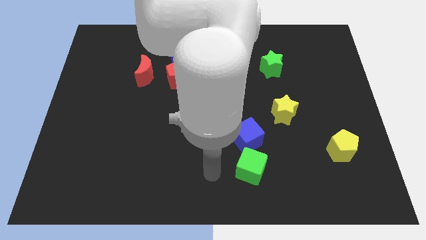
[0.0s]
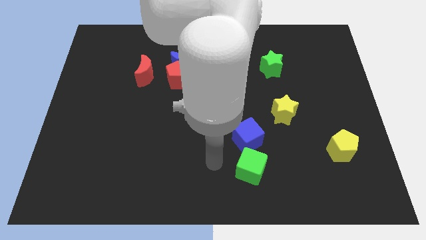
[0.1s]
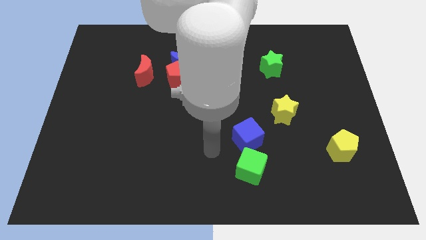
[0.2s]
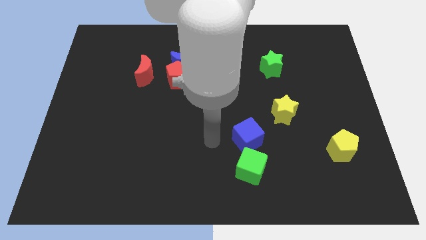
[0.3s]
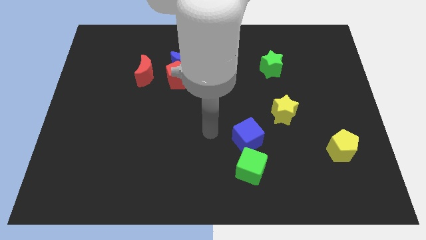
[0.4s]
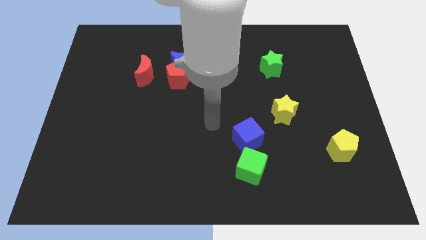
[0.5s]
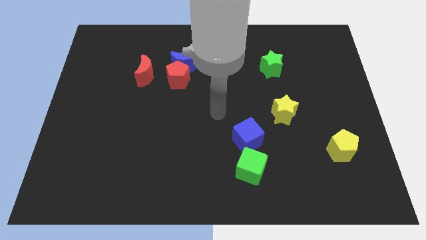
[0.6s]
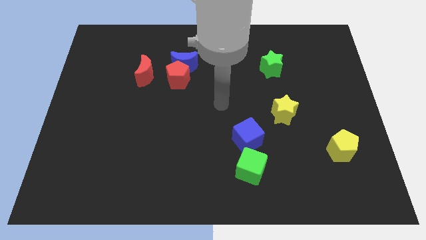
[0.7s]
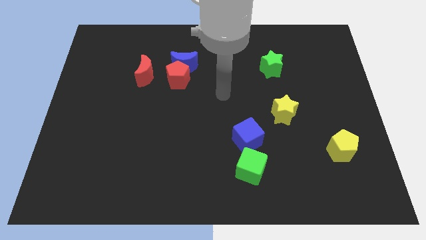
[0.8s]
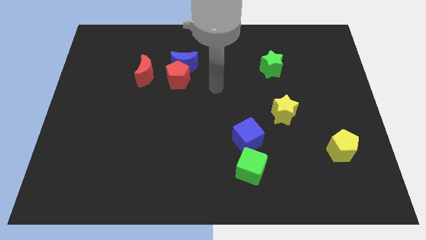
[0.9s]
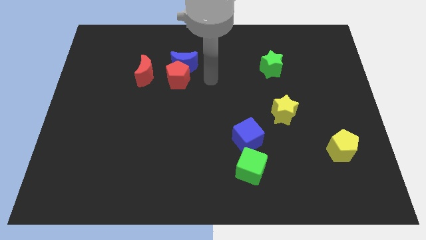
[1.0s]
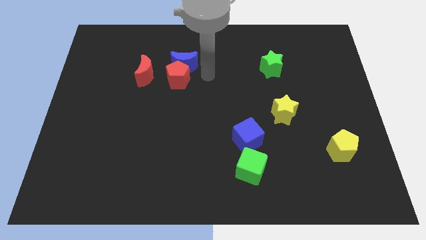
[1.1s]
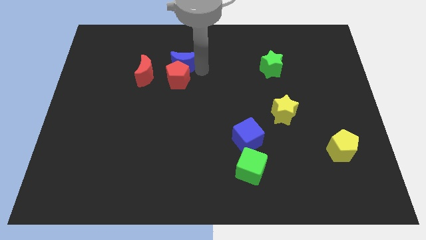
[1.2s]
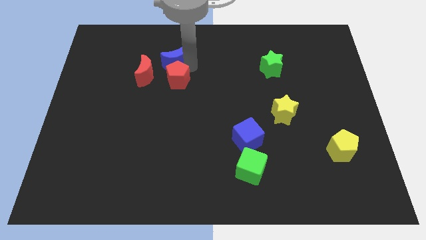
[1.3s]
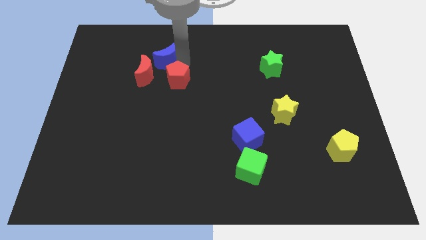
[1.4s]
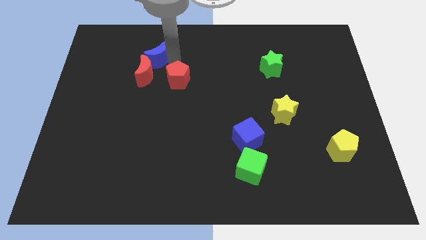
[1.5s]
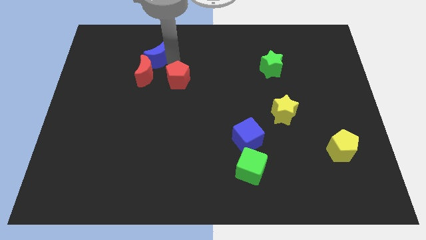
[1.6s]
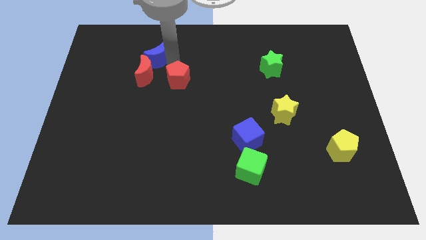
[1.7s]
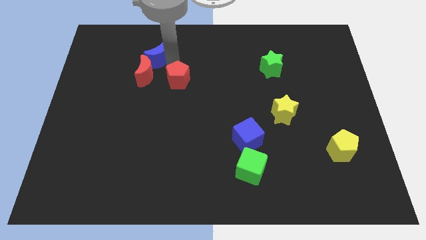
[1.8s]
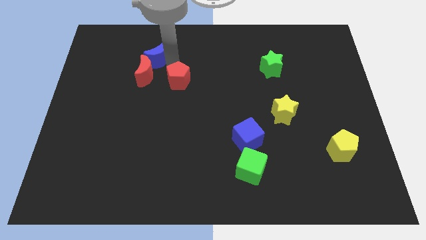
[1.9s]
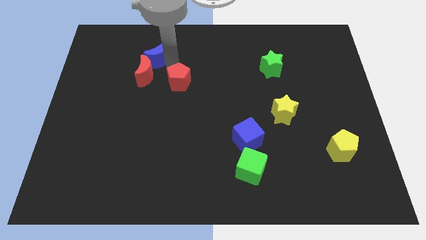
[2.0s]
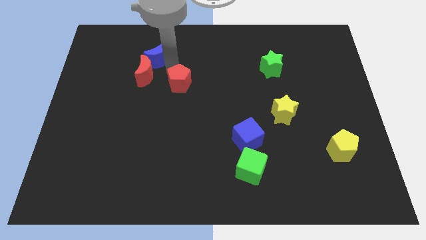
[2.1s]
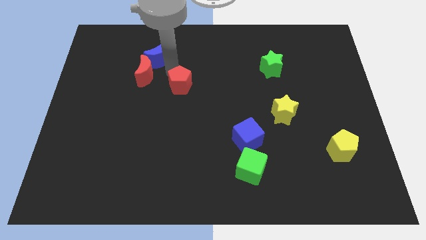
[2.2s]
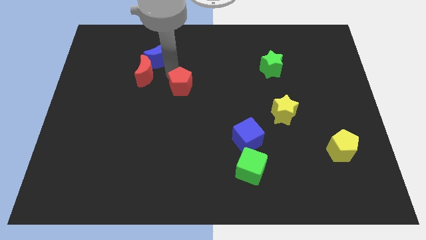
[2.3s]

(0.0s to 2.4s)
move the red pentagon away from the blue moon and red moon

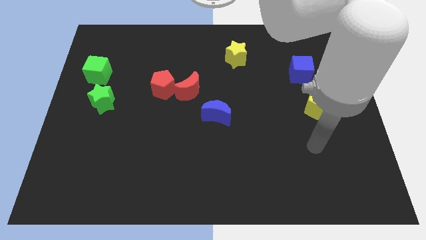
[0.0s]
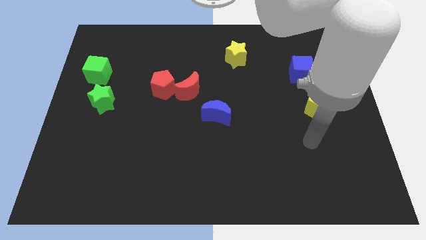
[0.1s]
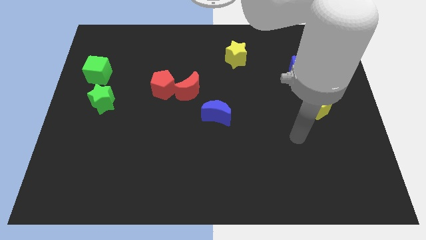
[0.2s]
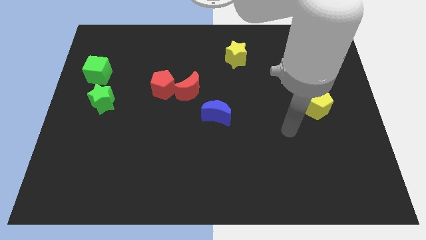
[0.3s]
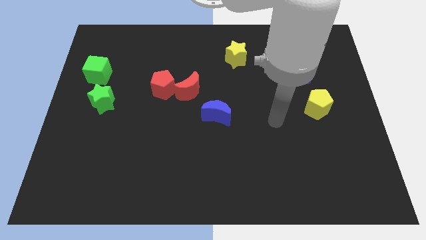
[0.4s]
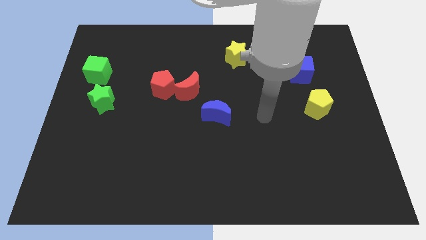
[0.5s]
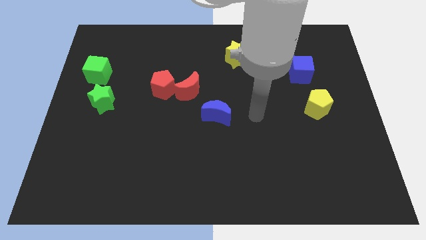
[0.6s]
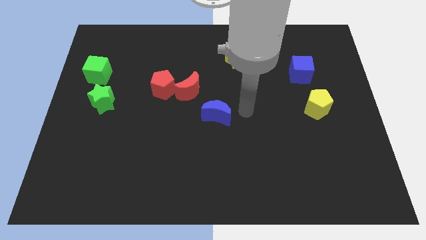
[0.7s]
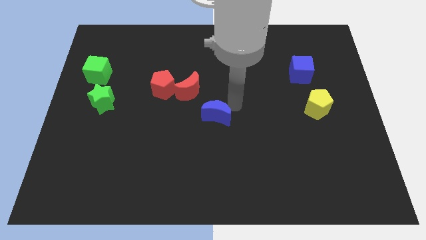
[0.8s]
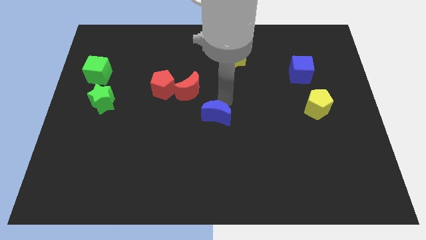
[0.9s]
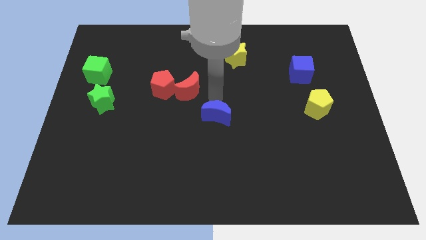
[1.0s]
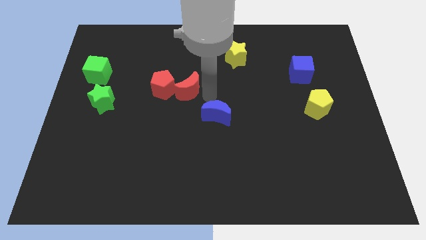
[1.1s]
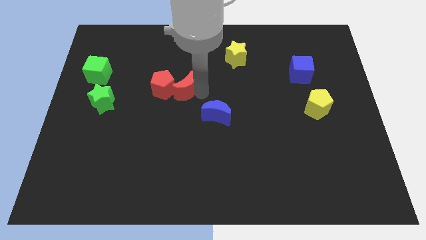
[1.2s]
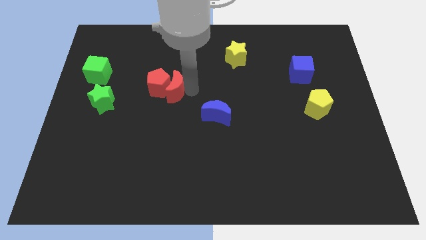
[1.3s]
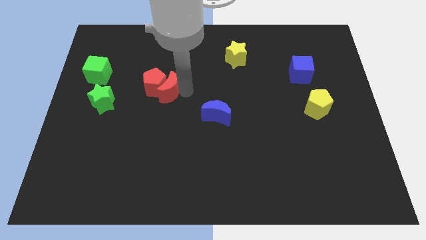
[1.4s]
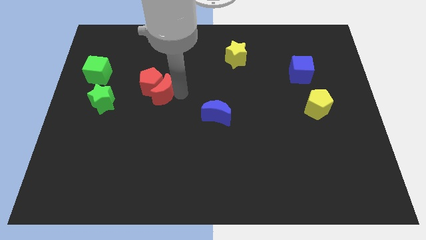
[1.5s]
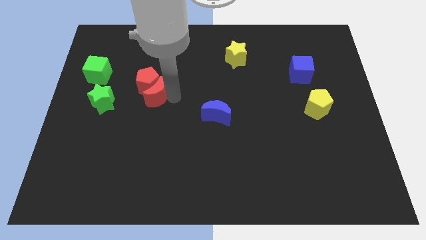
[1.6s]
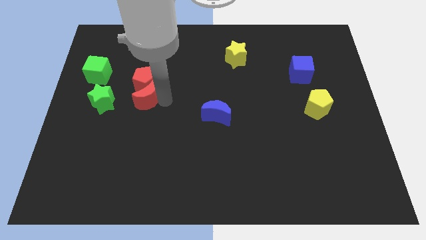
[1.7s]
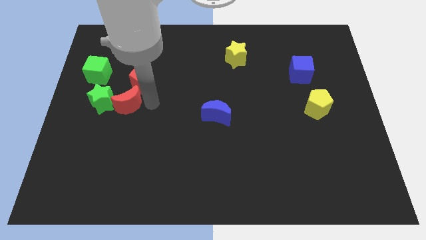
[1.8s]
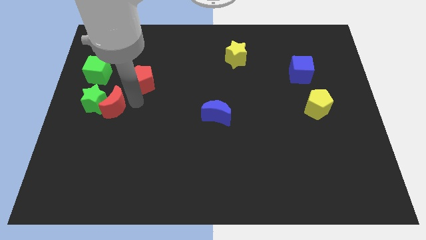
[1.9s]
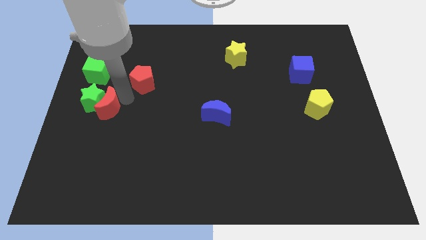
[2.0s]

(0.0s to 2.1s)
pull the red pentagon apart from the red moon

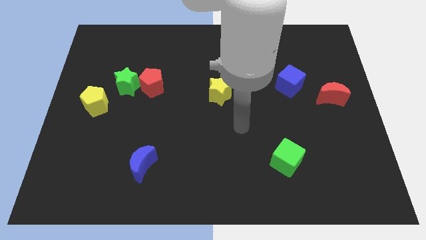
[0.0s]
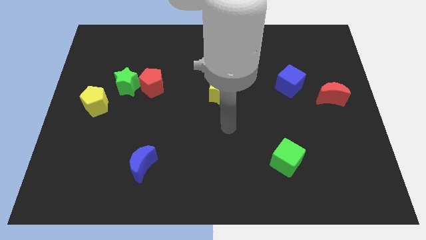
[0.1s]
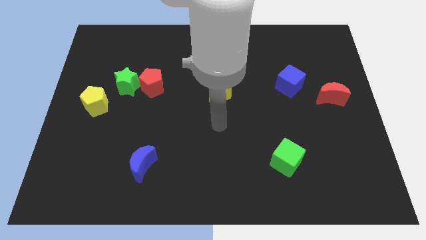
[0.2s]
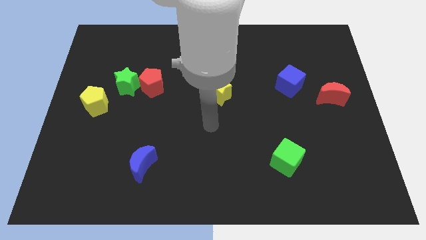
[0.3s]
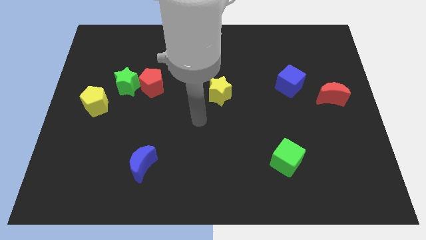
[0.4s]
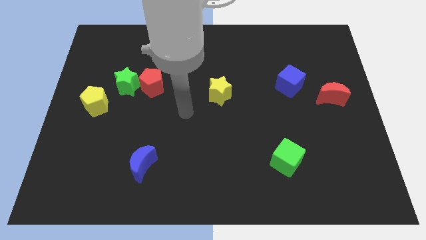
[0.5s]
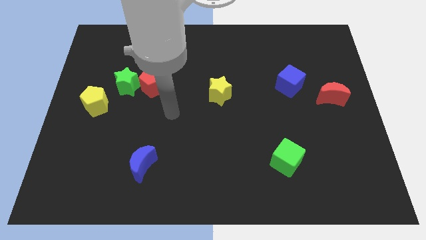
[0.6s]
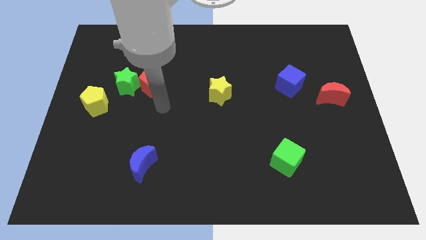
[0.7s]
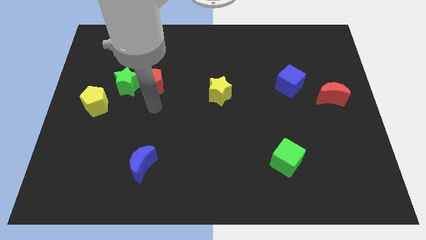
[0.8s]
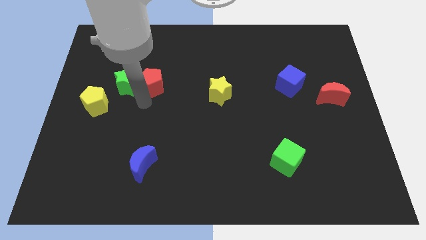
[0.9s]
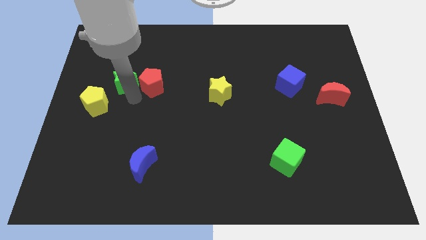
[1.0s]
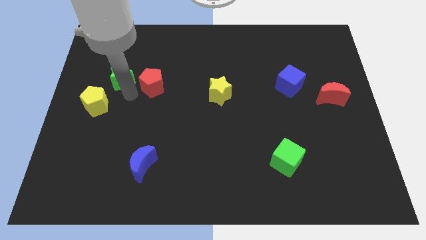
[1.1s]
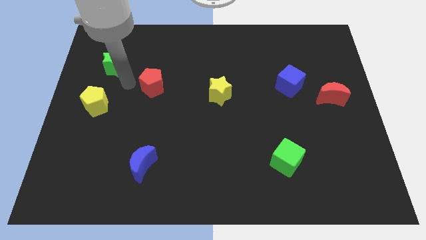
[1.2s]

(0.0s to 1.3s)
separate the red pentagon from the green star

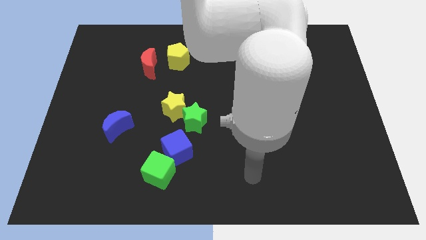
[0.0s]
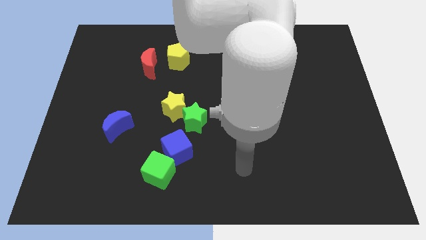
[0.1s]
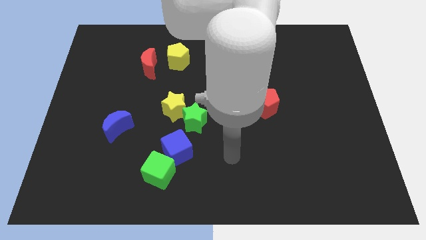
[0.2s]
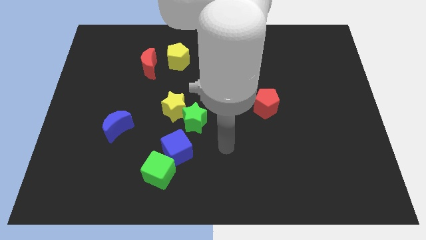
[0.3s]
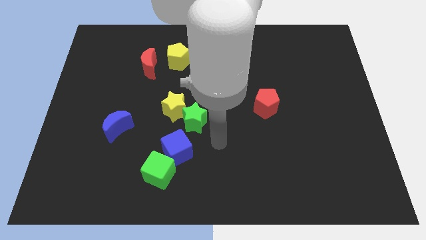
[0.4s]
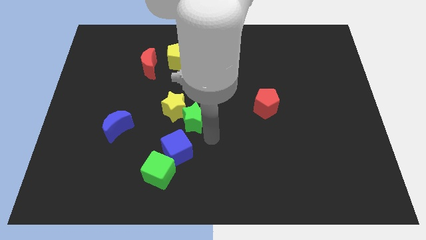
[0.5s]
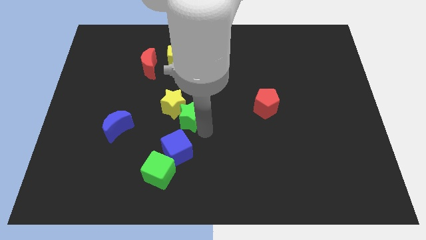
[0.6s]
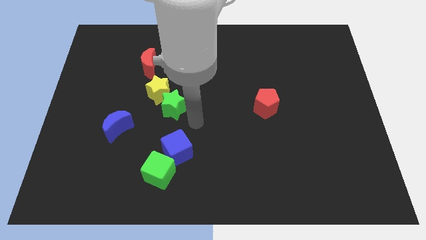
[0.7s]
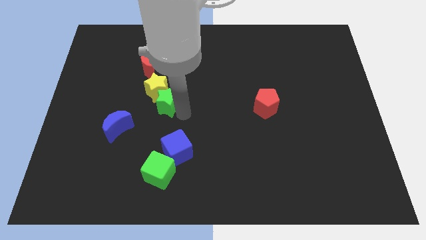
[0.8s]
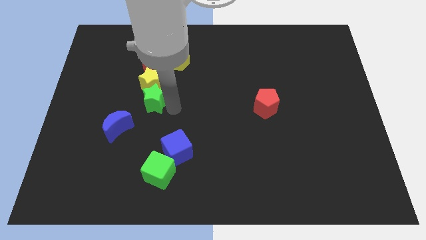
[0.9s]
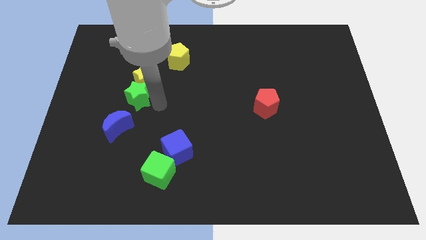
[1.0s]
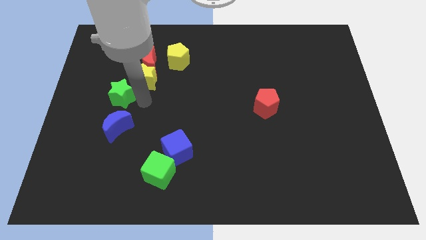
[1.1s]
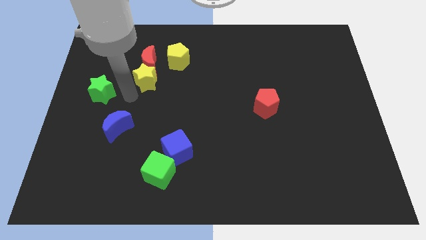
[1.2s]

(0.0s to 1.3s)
pull the yellow star apart from the green star

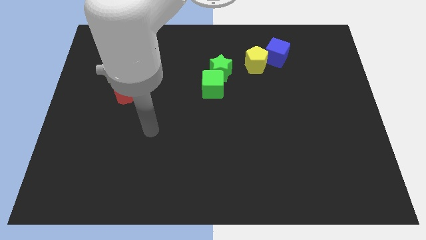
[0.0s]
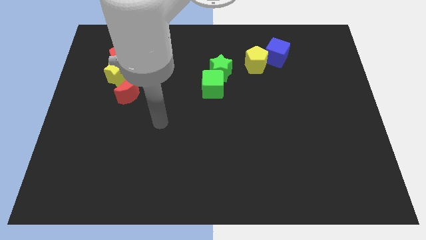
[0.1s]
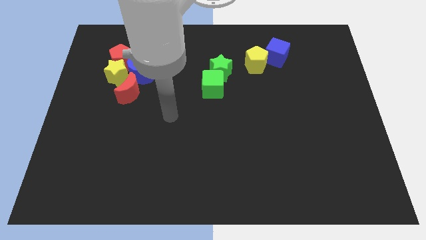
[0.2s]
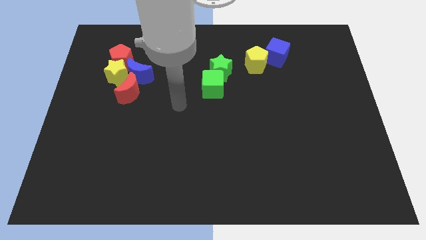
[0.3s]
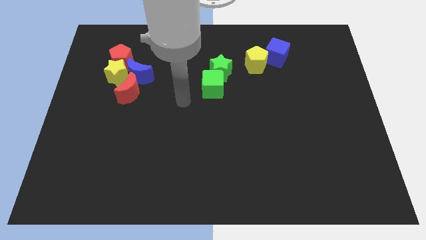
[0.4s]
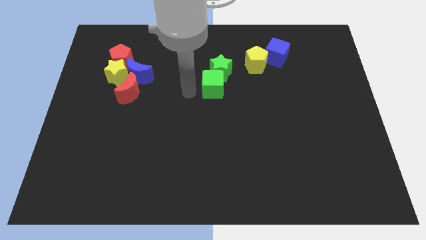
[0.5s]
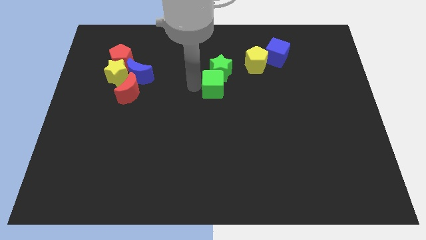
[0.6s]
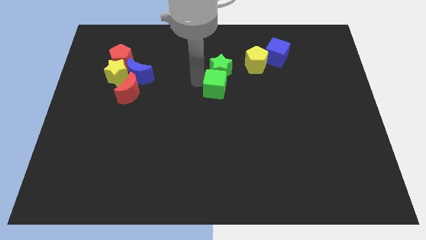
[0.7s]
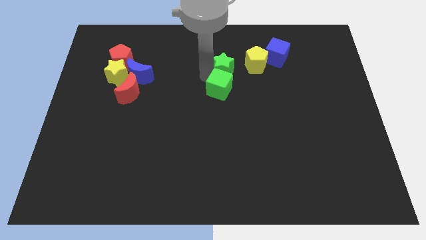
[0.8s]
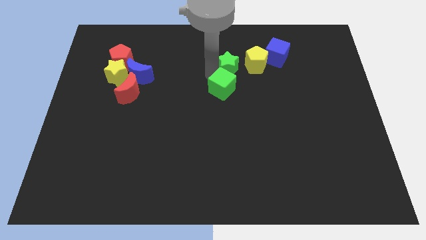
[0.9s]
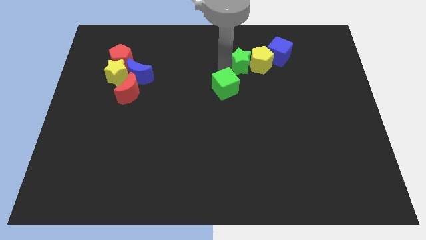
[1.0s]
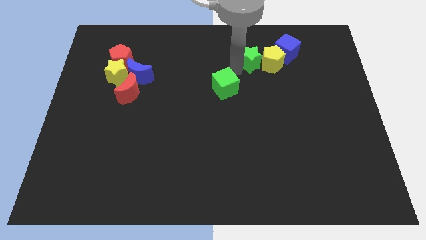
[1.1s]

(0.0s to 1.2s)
move the green cube away from the green star

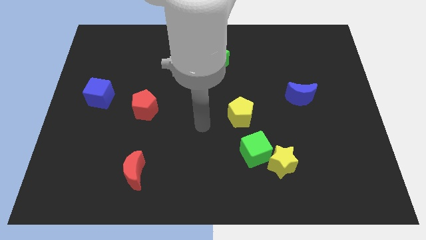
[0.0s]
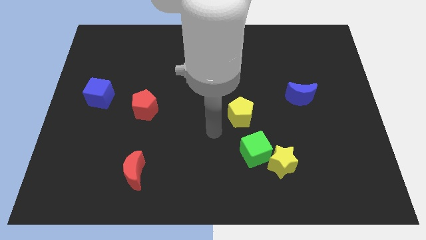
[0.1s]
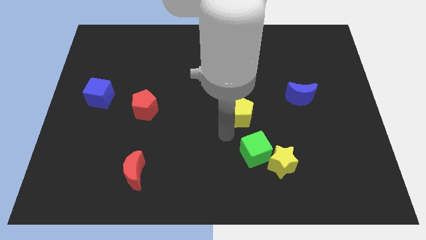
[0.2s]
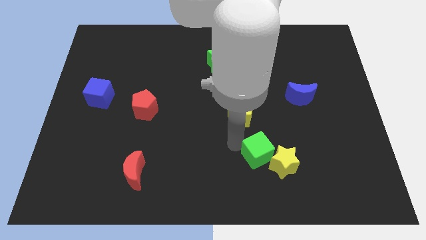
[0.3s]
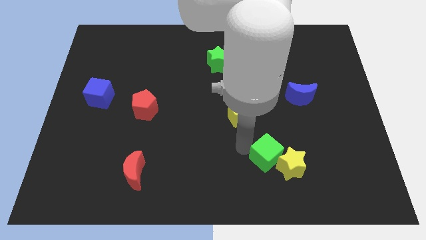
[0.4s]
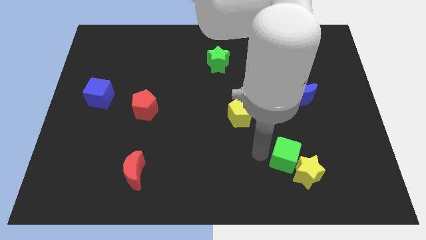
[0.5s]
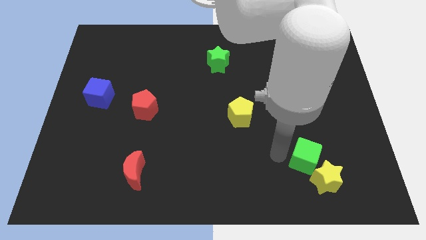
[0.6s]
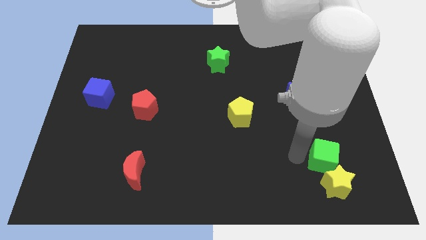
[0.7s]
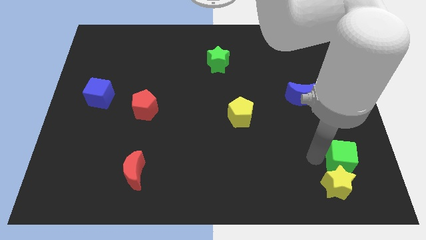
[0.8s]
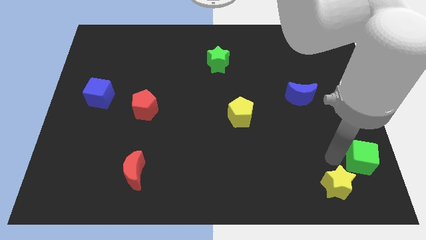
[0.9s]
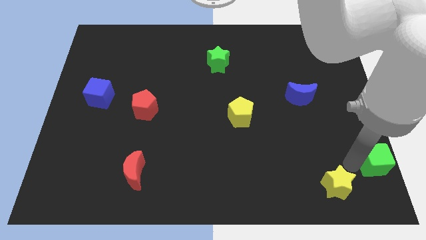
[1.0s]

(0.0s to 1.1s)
move the yellow star away from the green cube
